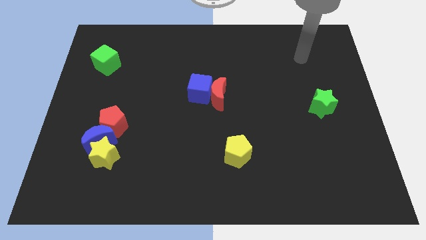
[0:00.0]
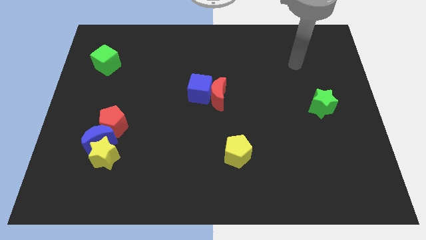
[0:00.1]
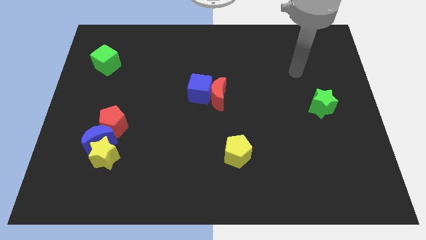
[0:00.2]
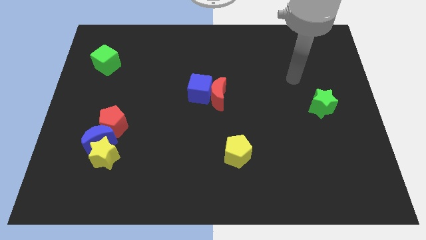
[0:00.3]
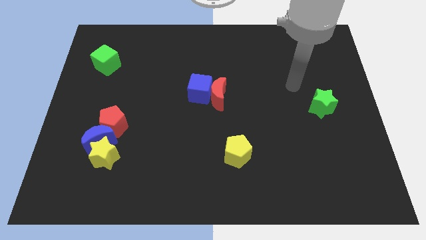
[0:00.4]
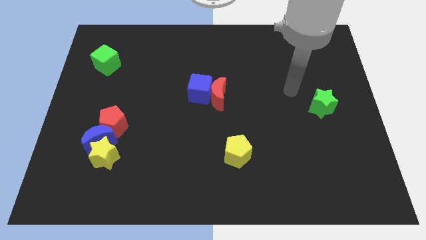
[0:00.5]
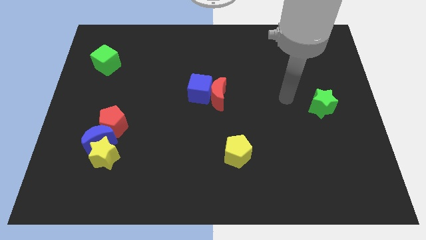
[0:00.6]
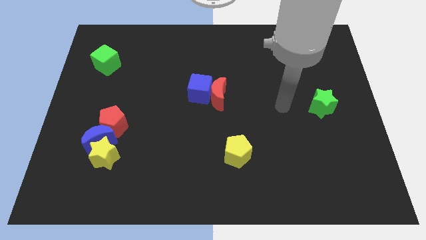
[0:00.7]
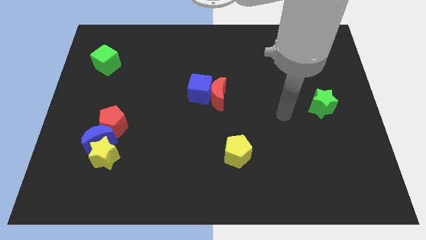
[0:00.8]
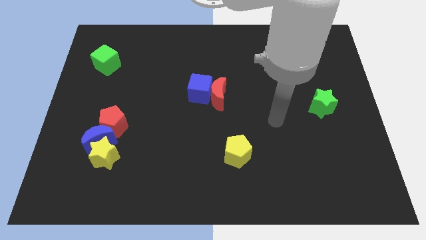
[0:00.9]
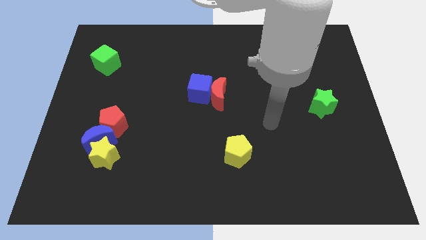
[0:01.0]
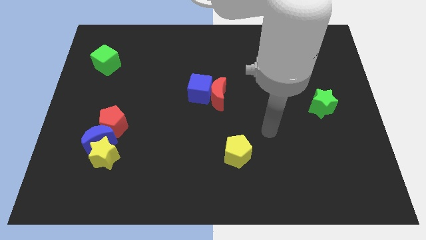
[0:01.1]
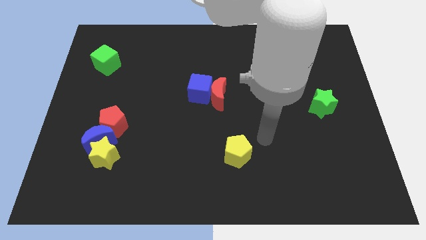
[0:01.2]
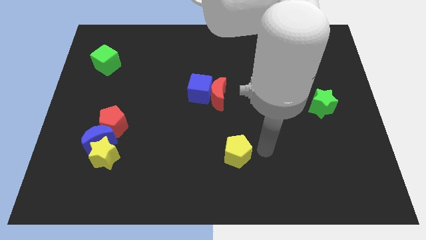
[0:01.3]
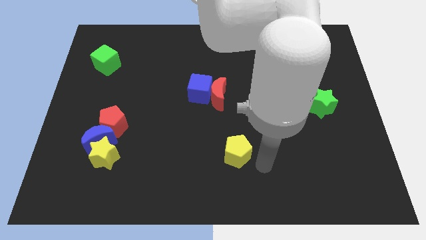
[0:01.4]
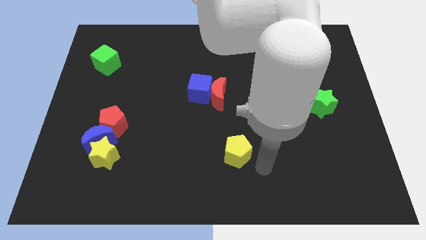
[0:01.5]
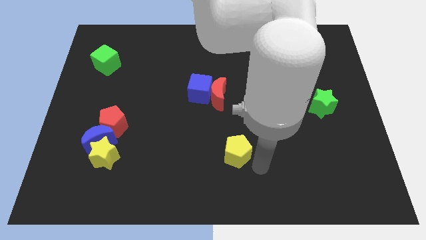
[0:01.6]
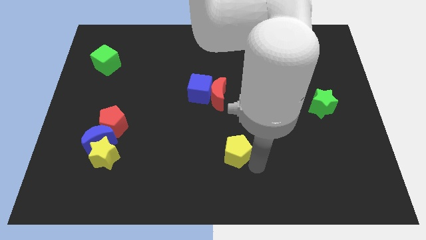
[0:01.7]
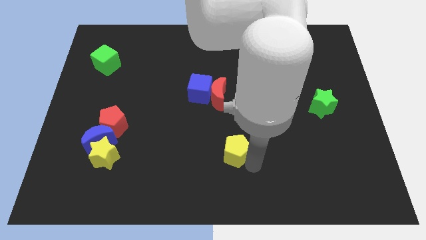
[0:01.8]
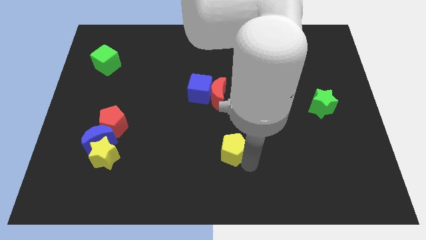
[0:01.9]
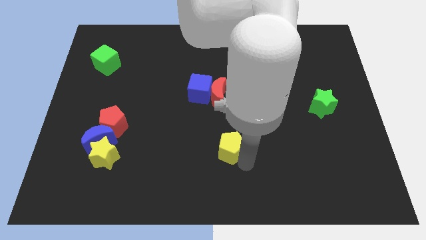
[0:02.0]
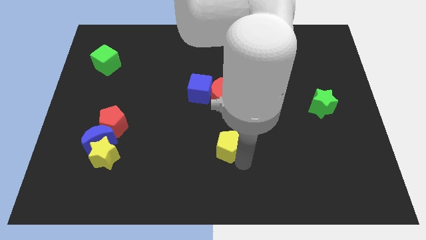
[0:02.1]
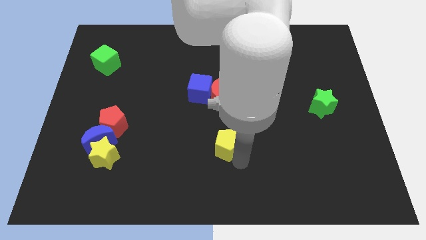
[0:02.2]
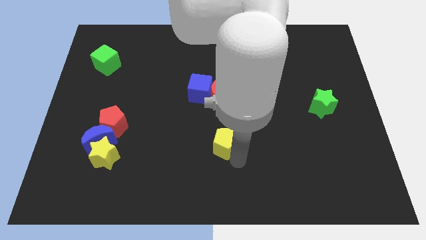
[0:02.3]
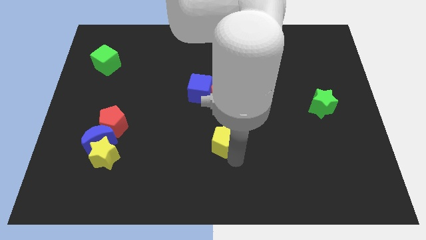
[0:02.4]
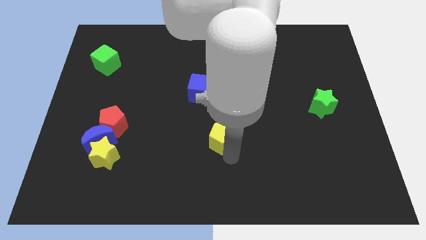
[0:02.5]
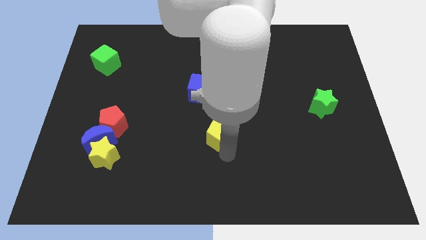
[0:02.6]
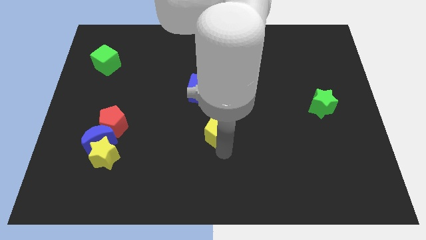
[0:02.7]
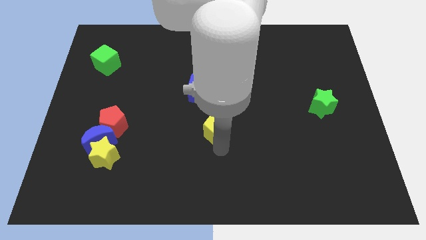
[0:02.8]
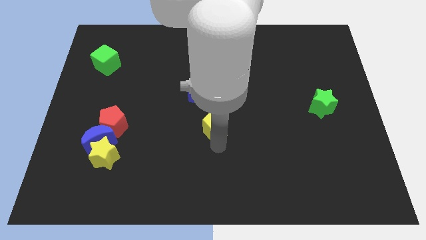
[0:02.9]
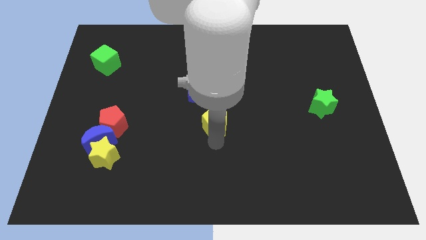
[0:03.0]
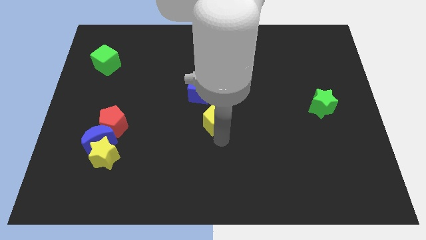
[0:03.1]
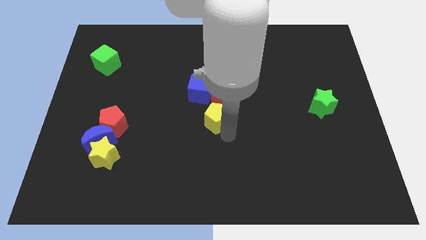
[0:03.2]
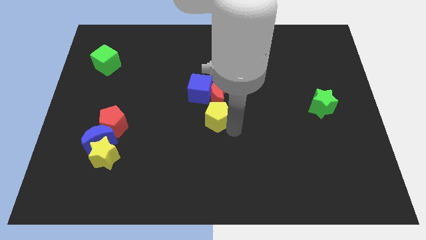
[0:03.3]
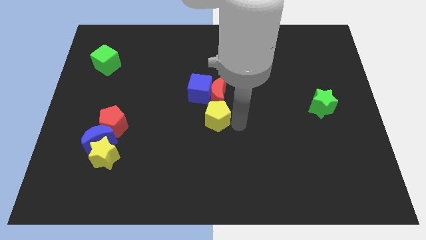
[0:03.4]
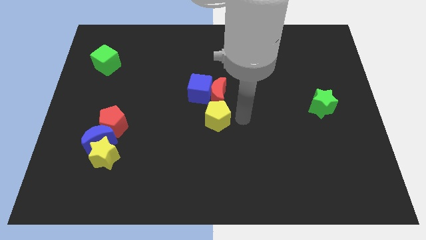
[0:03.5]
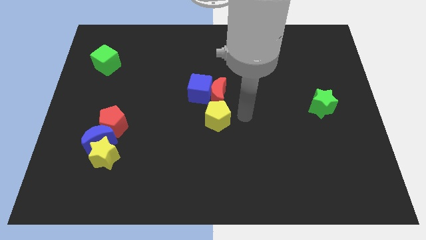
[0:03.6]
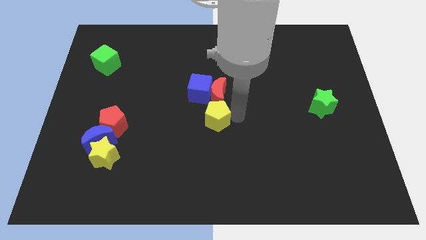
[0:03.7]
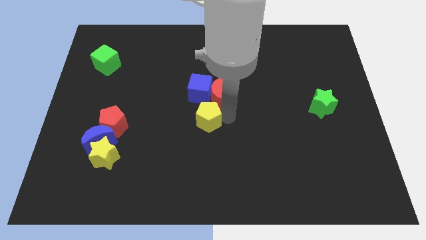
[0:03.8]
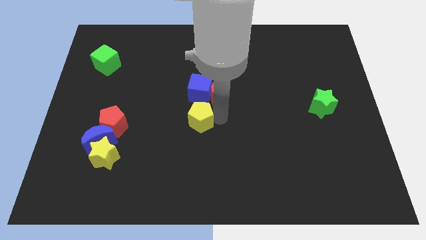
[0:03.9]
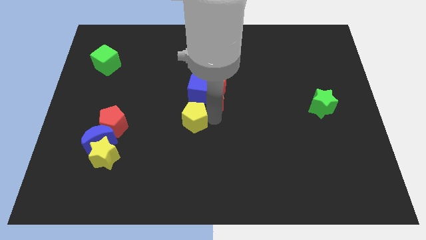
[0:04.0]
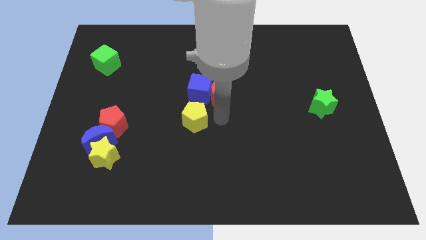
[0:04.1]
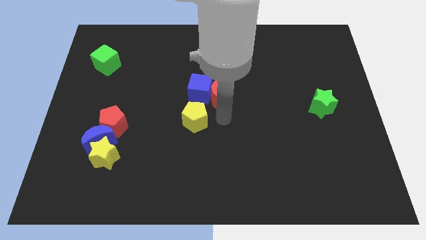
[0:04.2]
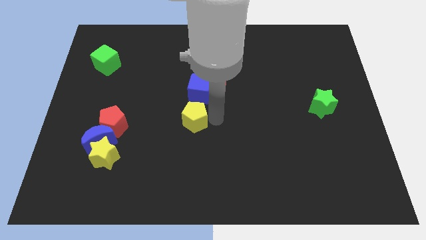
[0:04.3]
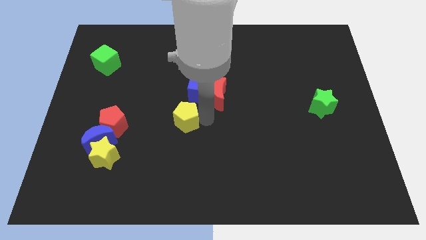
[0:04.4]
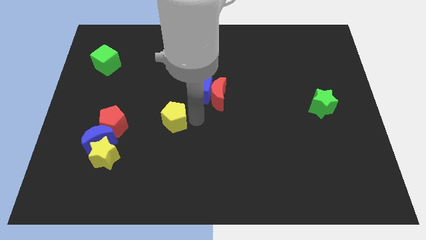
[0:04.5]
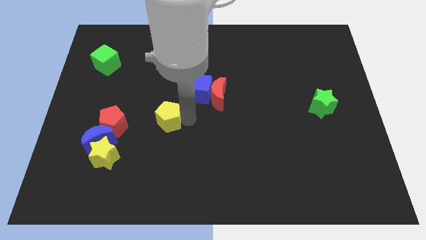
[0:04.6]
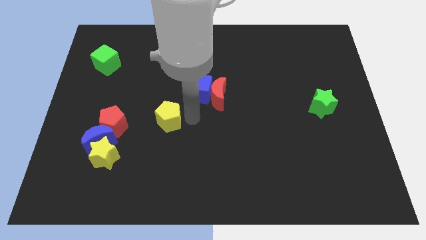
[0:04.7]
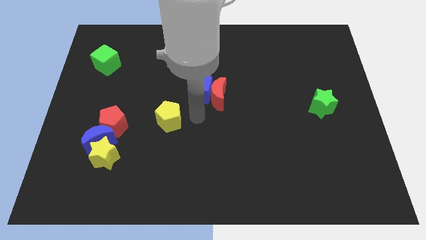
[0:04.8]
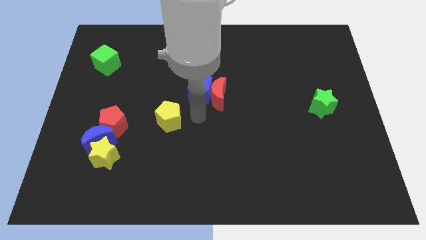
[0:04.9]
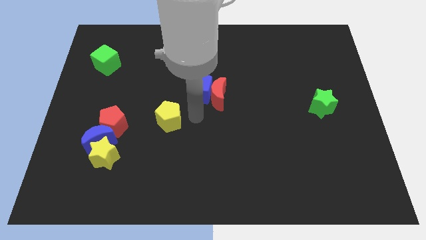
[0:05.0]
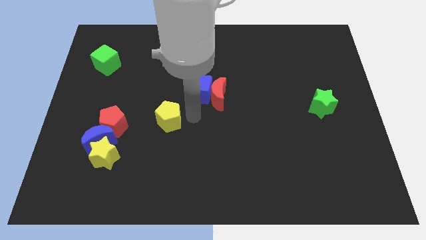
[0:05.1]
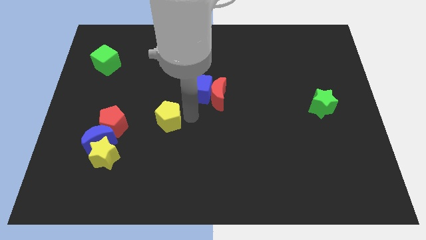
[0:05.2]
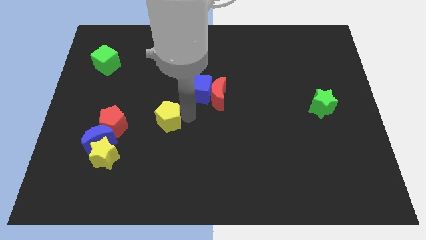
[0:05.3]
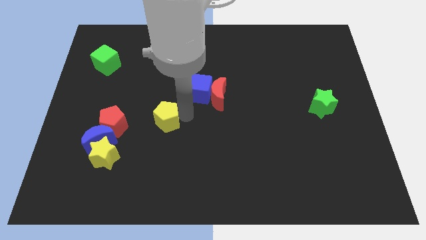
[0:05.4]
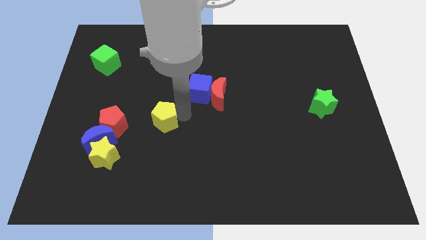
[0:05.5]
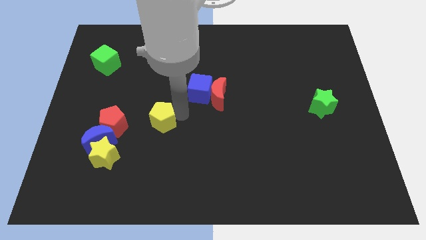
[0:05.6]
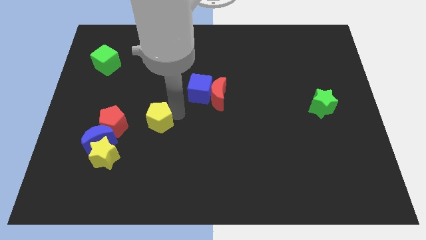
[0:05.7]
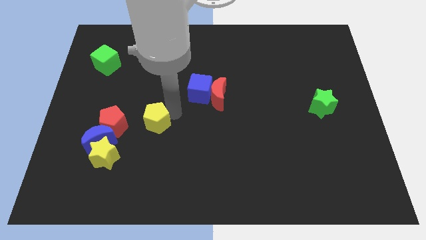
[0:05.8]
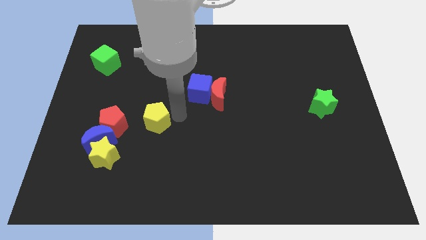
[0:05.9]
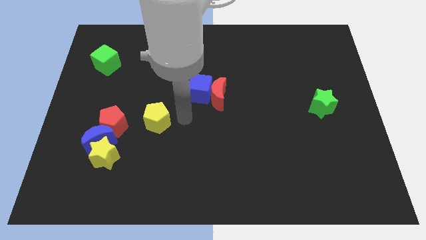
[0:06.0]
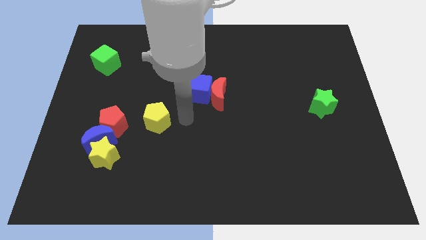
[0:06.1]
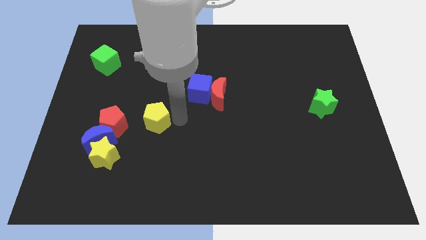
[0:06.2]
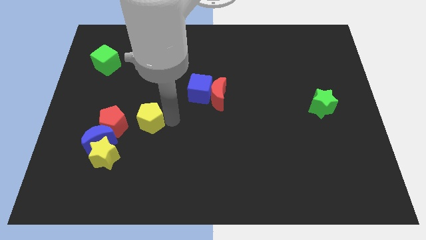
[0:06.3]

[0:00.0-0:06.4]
slide the yellow pentagon to the top right of the blue moon

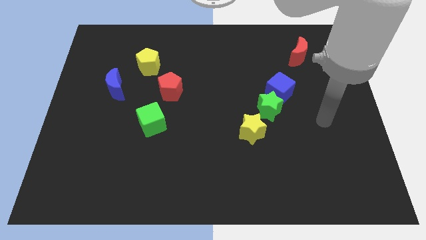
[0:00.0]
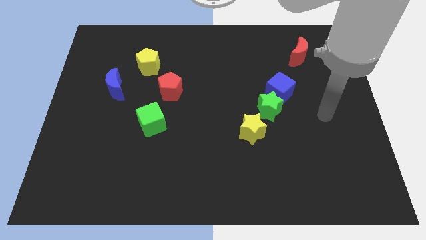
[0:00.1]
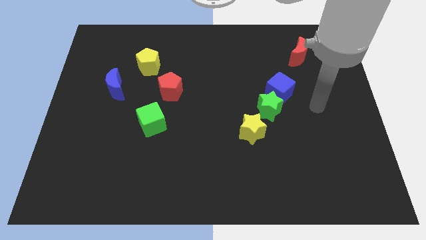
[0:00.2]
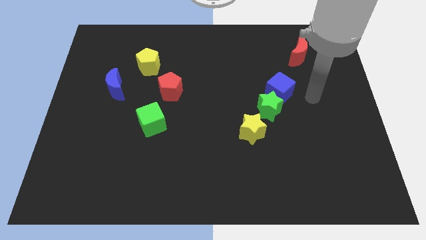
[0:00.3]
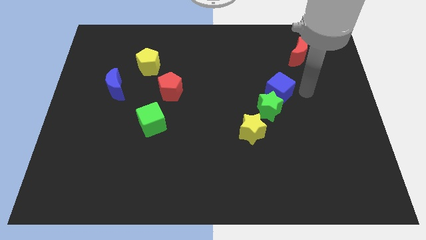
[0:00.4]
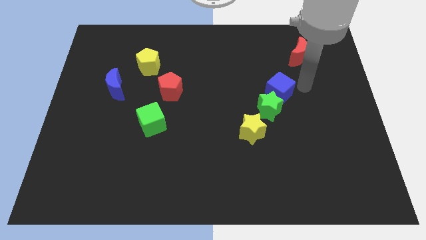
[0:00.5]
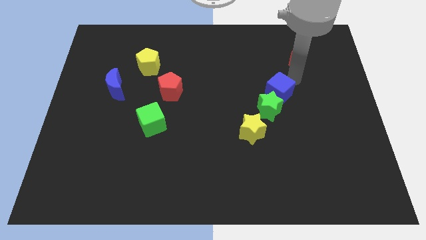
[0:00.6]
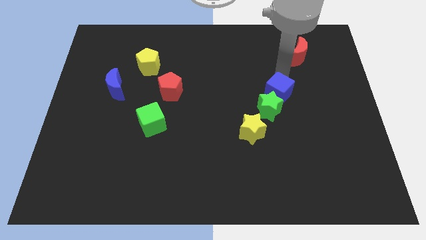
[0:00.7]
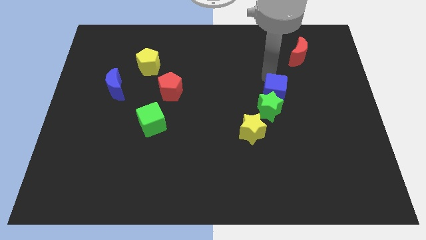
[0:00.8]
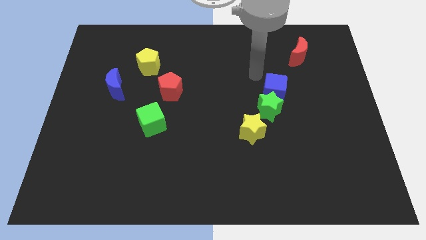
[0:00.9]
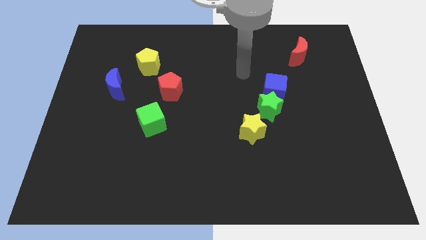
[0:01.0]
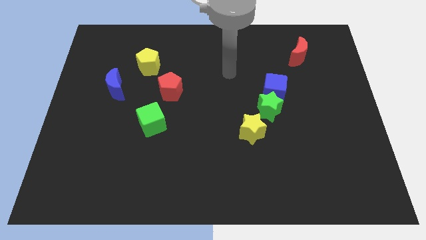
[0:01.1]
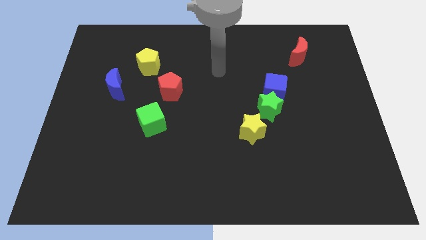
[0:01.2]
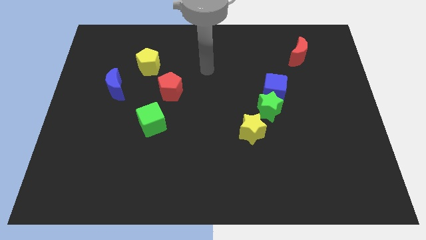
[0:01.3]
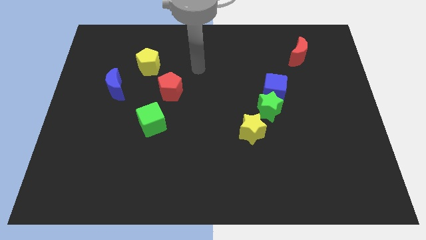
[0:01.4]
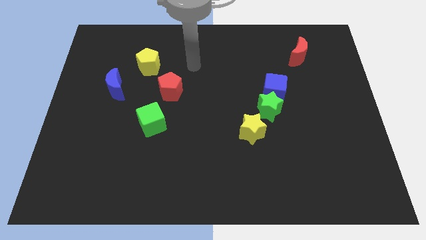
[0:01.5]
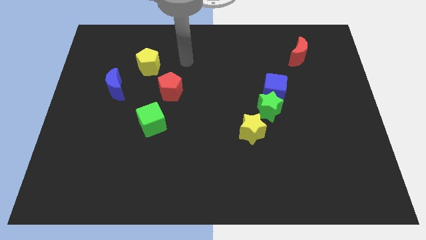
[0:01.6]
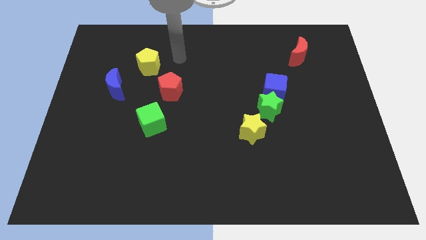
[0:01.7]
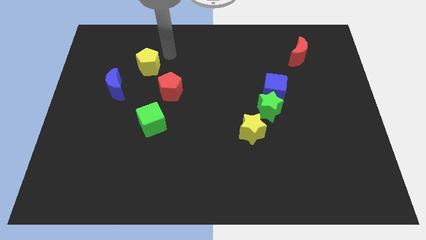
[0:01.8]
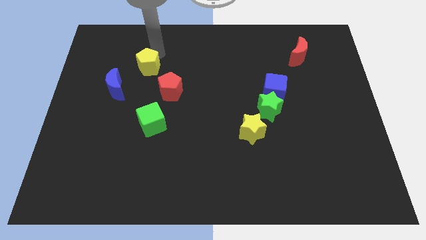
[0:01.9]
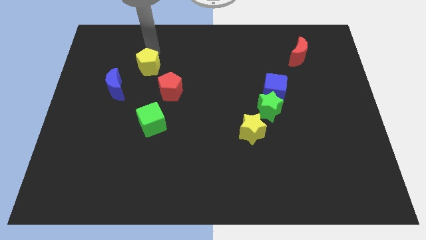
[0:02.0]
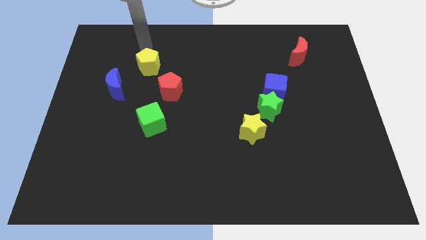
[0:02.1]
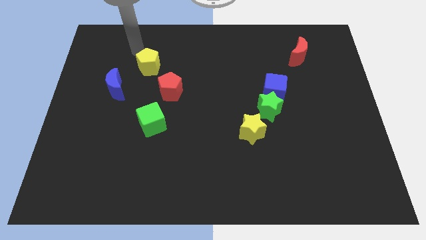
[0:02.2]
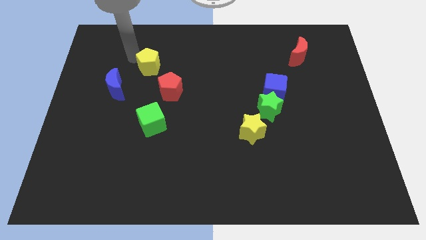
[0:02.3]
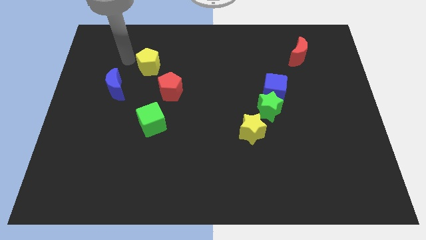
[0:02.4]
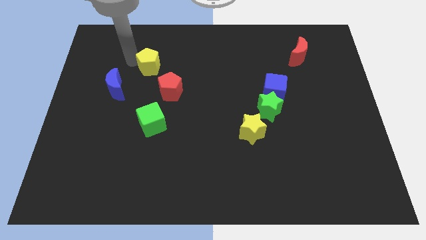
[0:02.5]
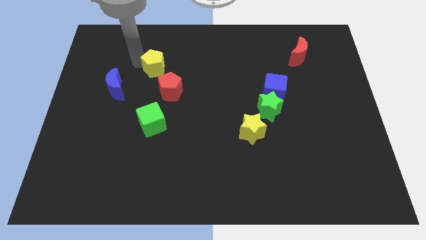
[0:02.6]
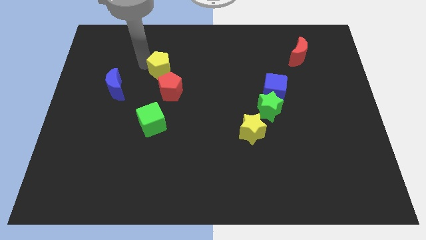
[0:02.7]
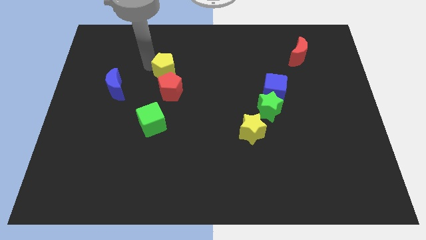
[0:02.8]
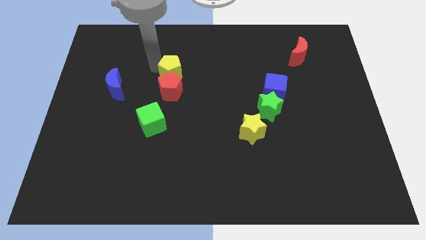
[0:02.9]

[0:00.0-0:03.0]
slide the yellow pentagon diagonally up and to the right of the red pentagon
